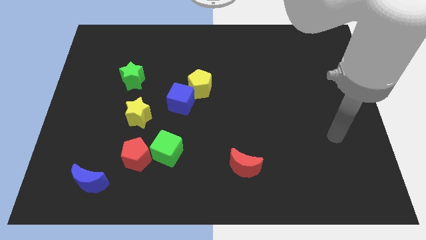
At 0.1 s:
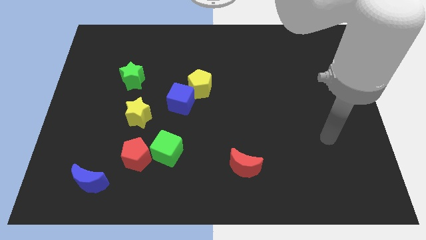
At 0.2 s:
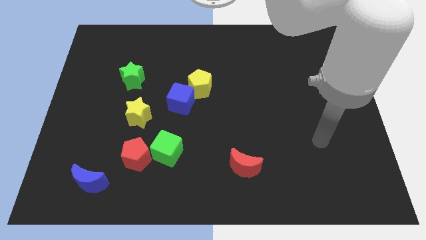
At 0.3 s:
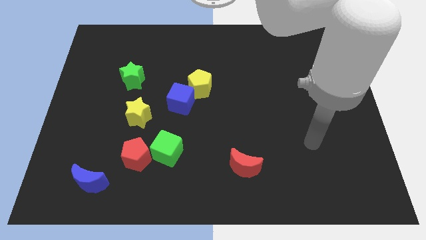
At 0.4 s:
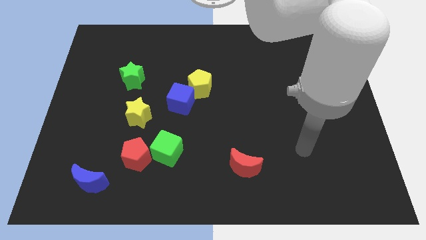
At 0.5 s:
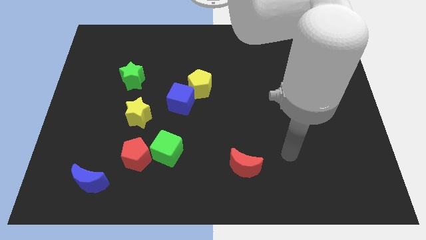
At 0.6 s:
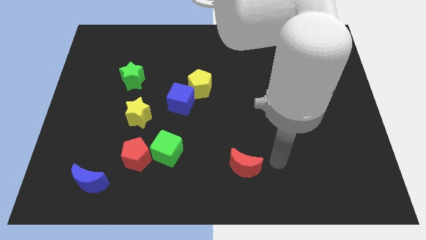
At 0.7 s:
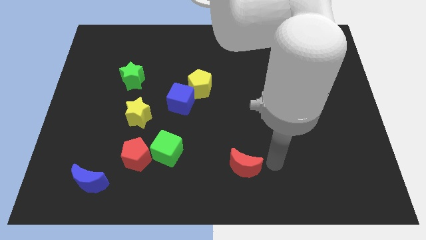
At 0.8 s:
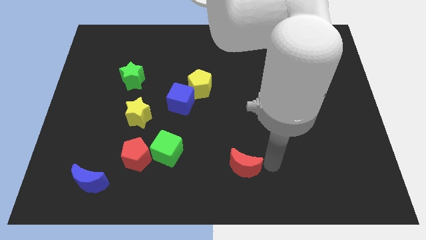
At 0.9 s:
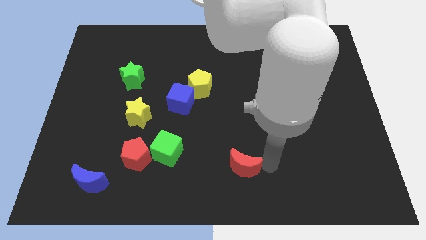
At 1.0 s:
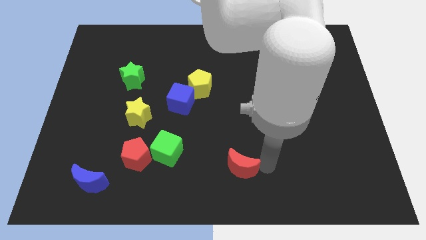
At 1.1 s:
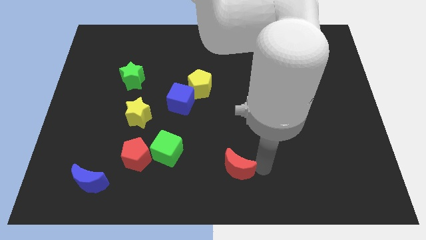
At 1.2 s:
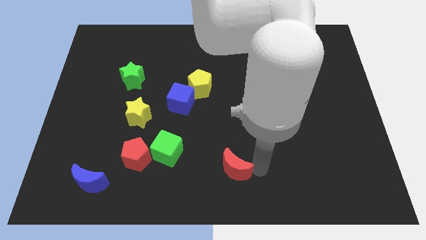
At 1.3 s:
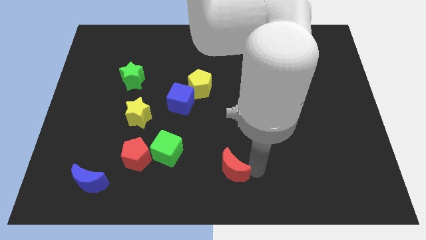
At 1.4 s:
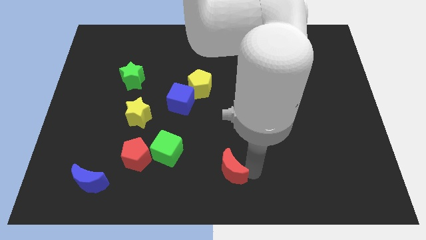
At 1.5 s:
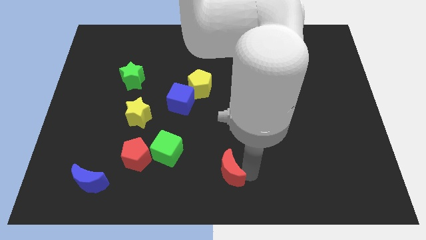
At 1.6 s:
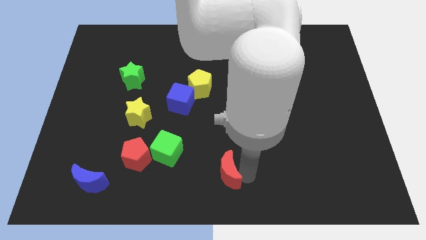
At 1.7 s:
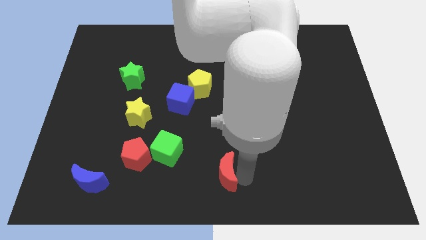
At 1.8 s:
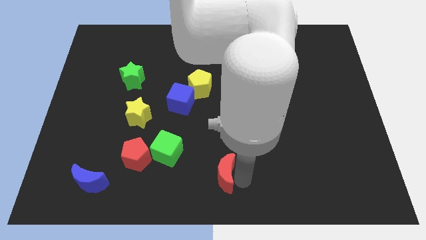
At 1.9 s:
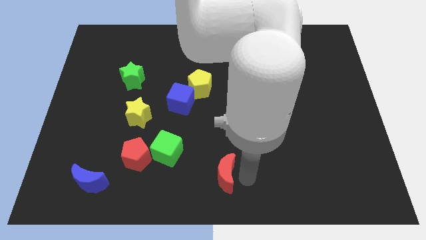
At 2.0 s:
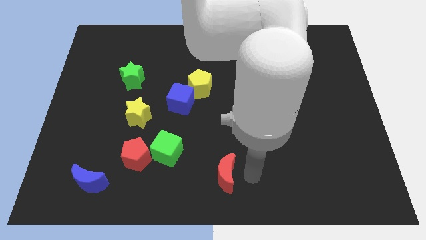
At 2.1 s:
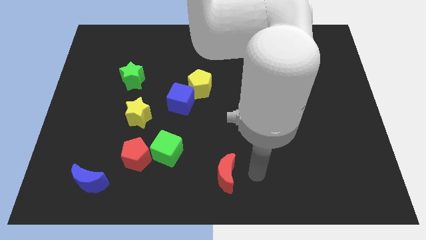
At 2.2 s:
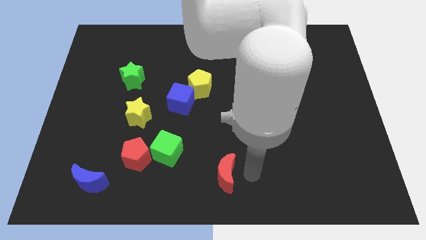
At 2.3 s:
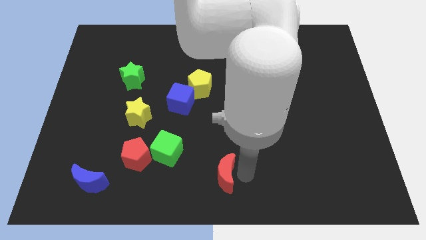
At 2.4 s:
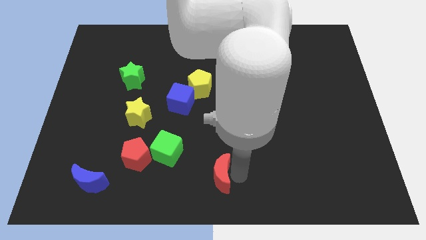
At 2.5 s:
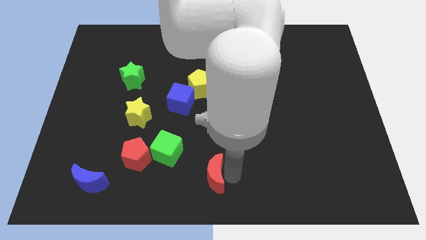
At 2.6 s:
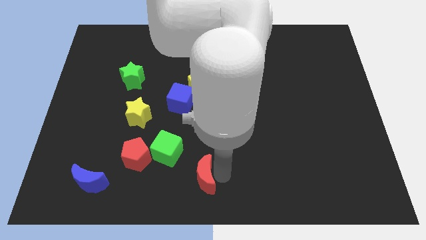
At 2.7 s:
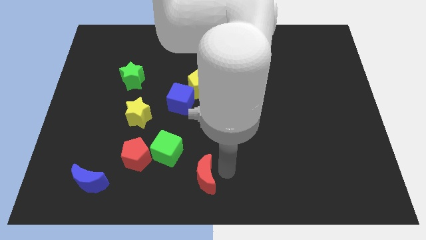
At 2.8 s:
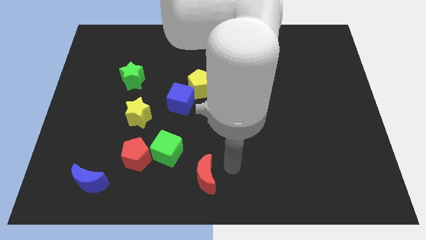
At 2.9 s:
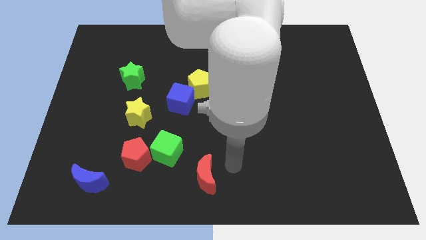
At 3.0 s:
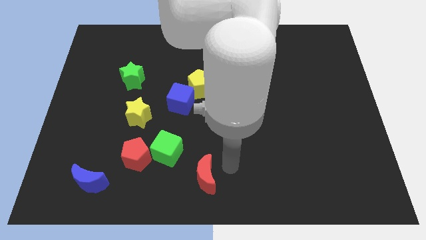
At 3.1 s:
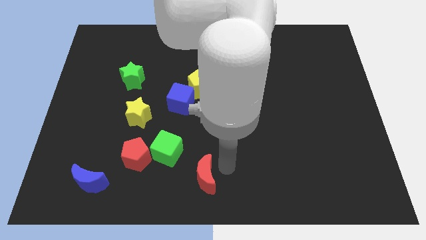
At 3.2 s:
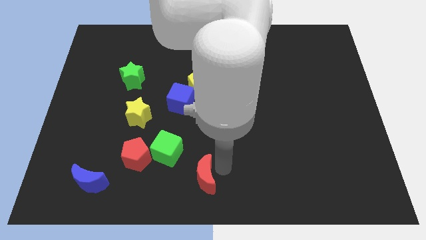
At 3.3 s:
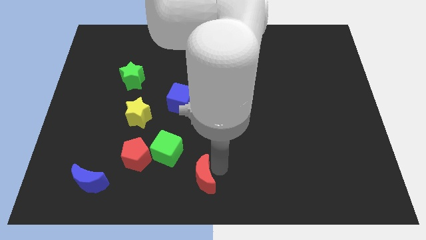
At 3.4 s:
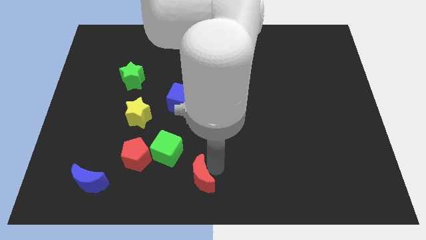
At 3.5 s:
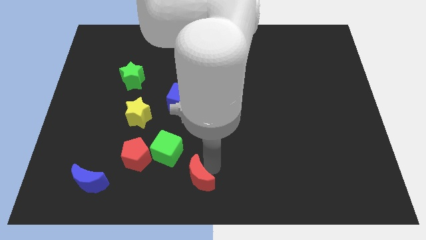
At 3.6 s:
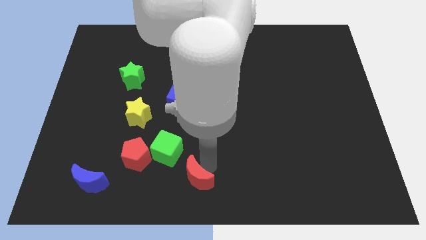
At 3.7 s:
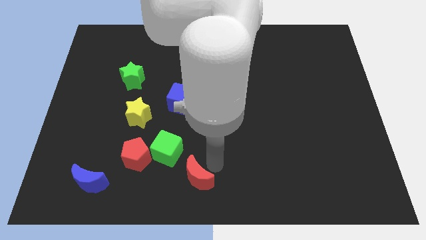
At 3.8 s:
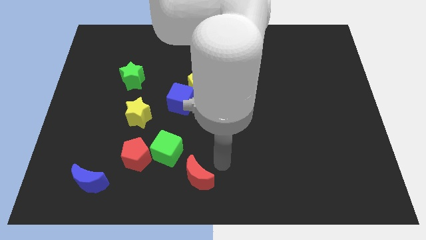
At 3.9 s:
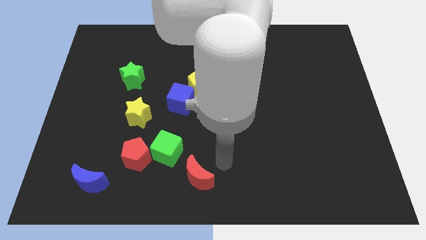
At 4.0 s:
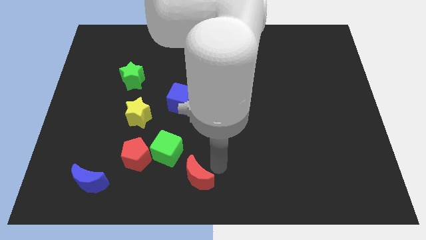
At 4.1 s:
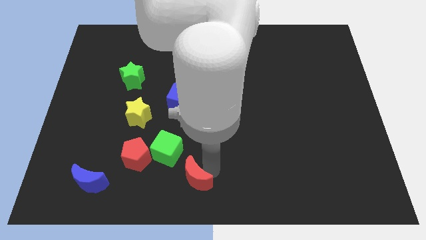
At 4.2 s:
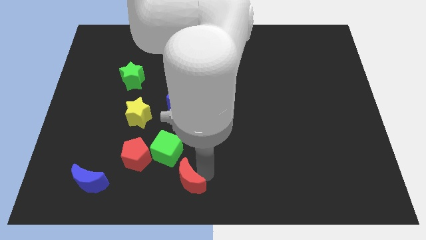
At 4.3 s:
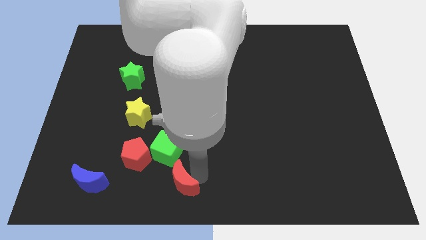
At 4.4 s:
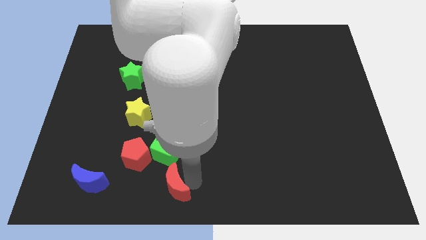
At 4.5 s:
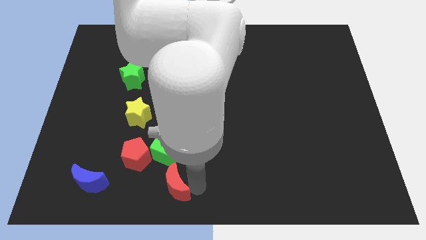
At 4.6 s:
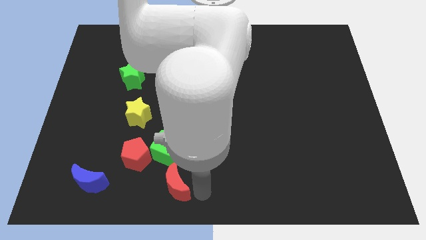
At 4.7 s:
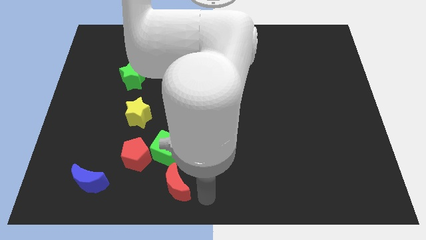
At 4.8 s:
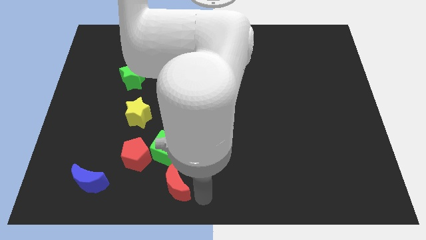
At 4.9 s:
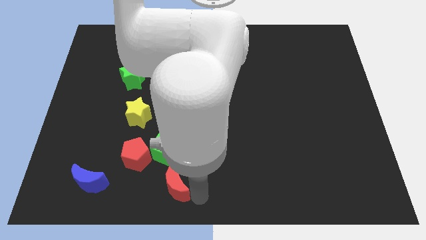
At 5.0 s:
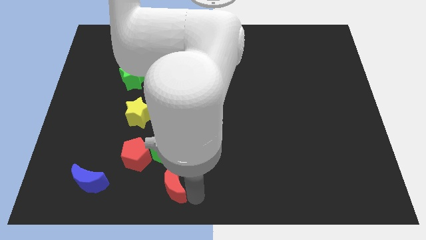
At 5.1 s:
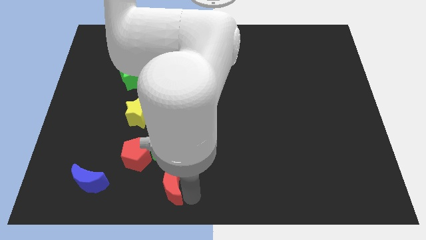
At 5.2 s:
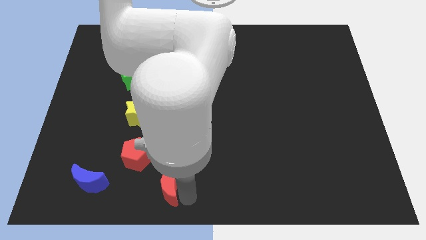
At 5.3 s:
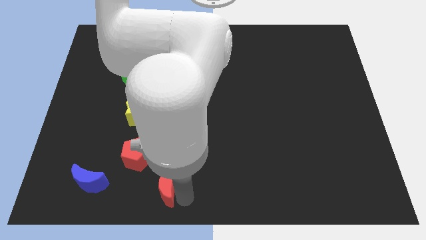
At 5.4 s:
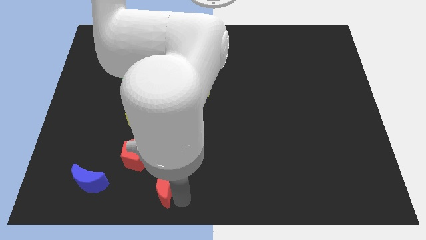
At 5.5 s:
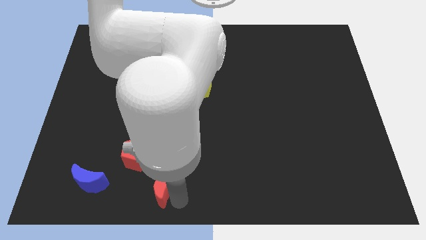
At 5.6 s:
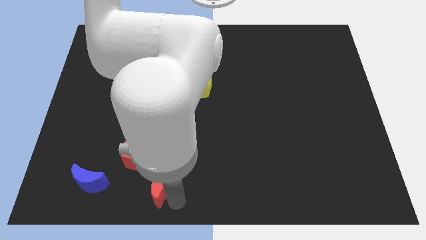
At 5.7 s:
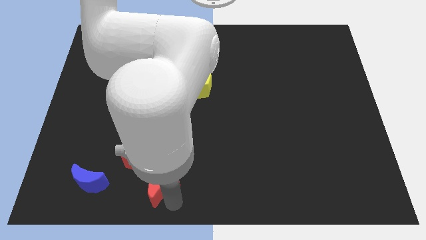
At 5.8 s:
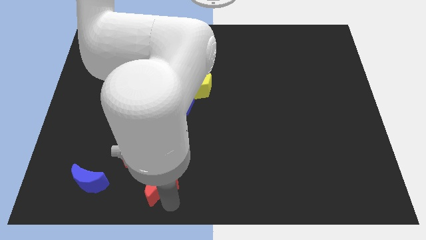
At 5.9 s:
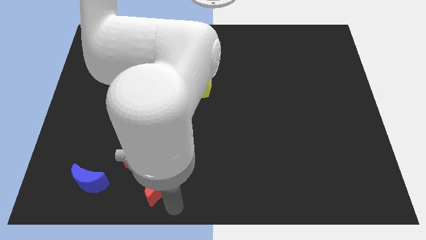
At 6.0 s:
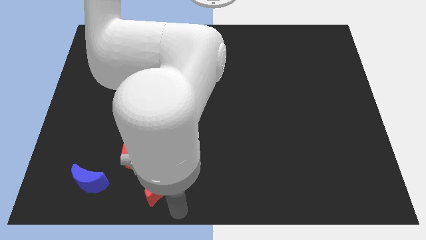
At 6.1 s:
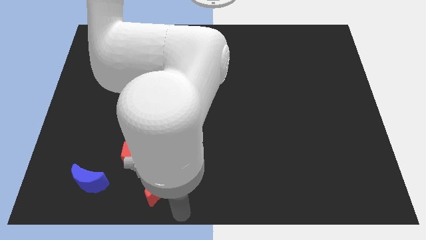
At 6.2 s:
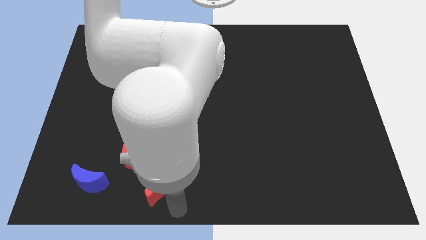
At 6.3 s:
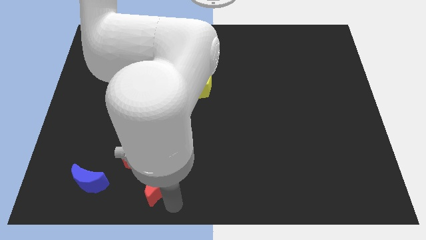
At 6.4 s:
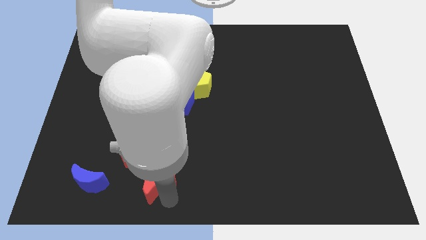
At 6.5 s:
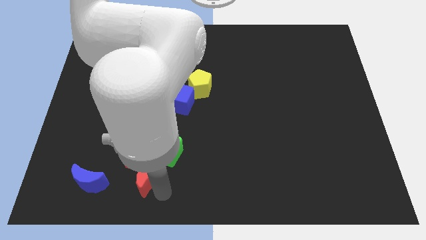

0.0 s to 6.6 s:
put the red moon towards the red pentagon

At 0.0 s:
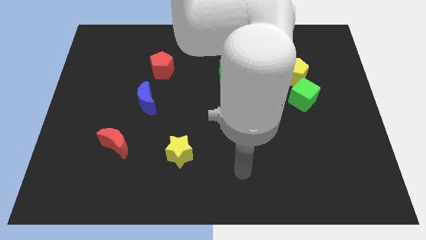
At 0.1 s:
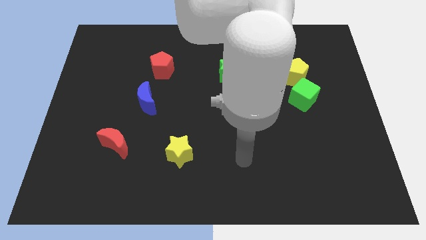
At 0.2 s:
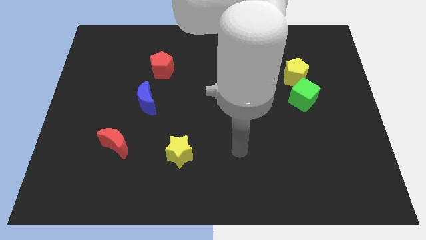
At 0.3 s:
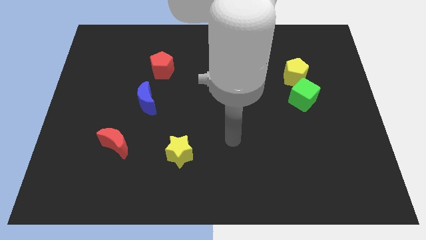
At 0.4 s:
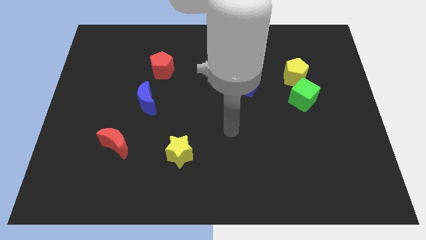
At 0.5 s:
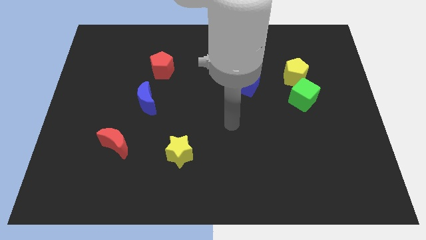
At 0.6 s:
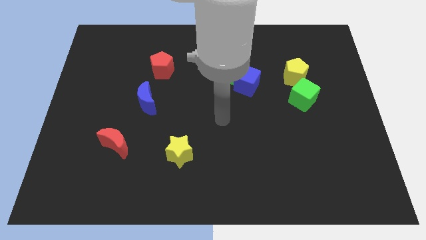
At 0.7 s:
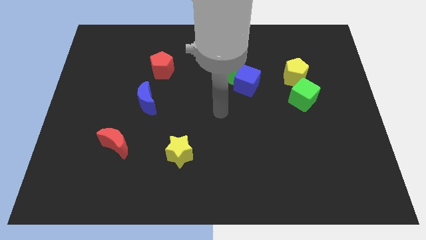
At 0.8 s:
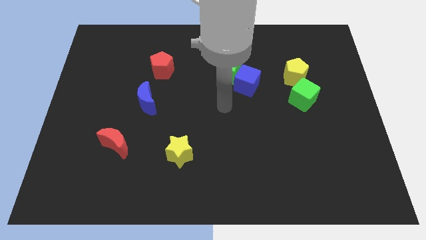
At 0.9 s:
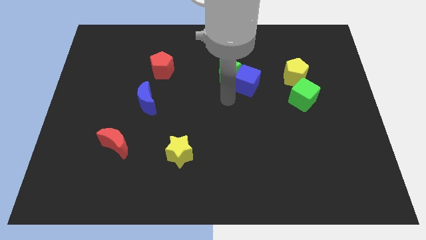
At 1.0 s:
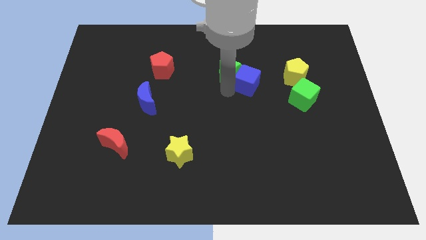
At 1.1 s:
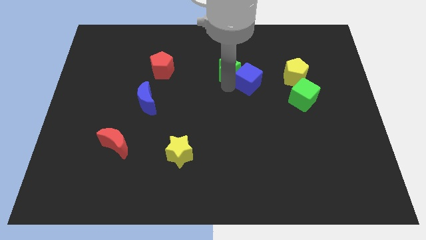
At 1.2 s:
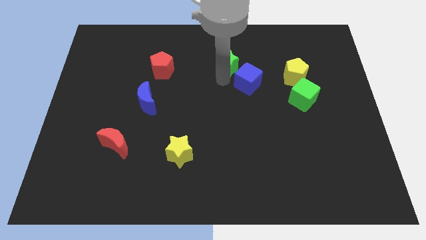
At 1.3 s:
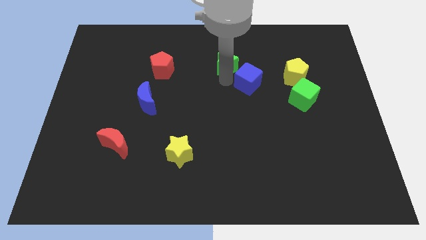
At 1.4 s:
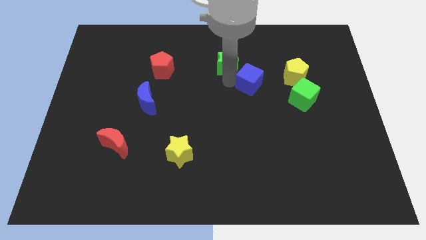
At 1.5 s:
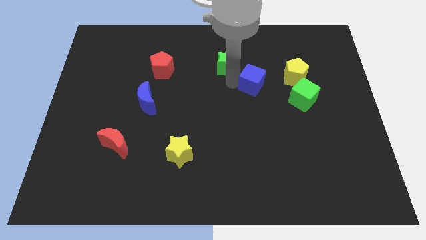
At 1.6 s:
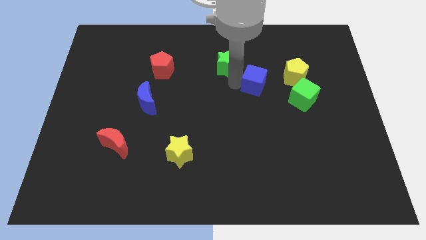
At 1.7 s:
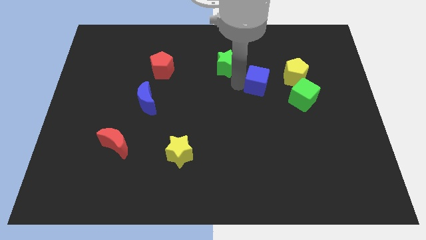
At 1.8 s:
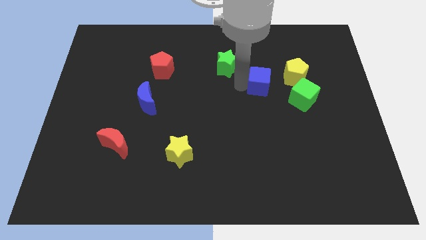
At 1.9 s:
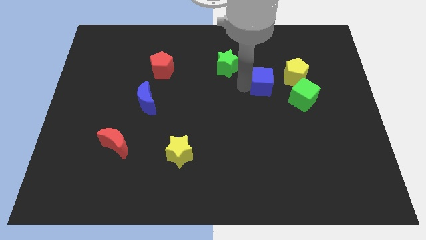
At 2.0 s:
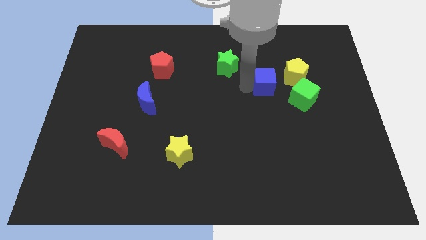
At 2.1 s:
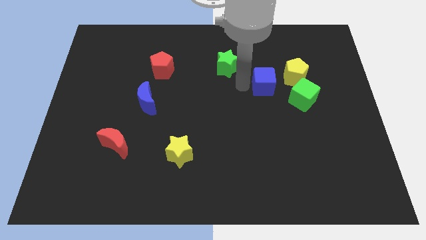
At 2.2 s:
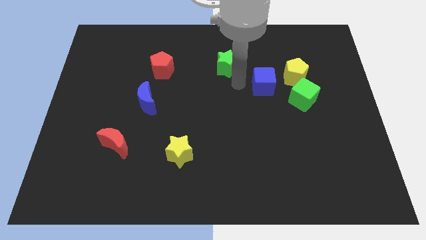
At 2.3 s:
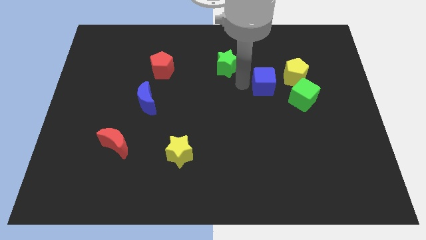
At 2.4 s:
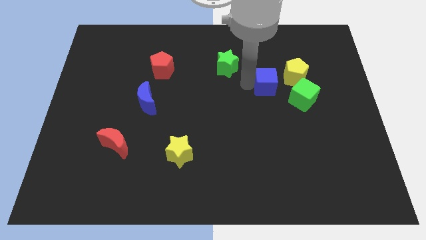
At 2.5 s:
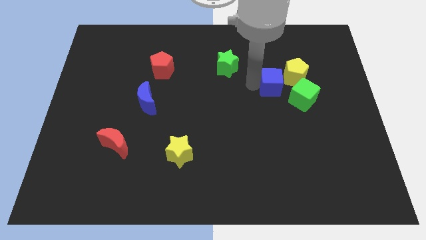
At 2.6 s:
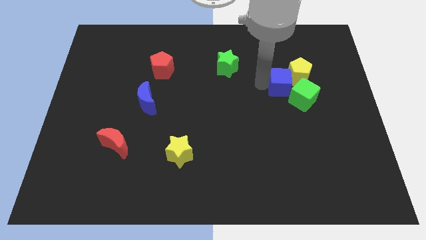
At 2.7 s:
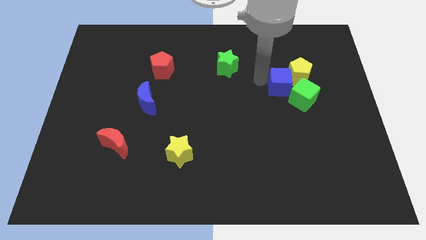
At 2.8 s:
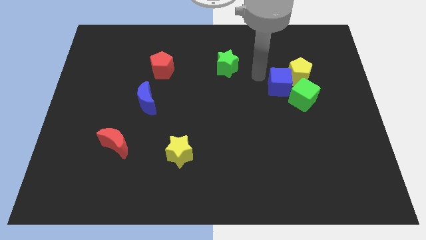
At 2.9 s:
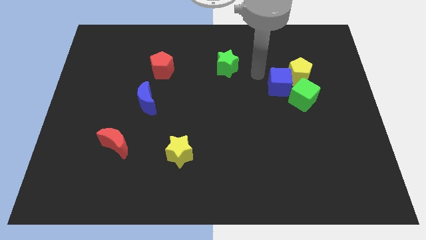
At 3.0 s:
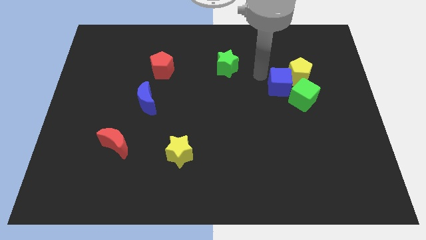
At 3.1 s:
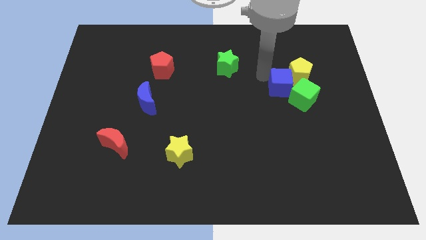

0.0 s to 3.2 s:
slide the blue cube towards the green cube
